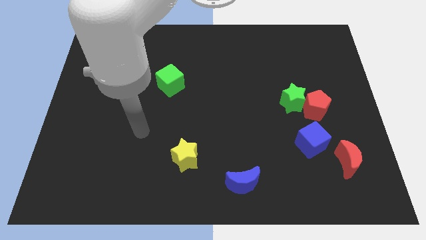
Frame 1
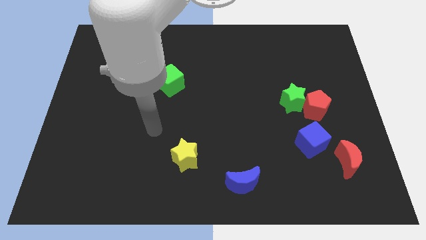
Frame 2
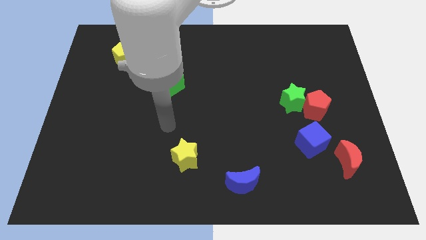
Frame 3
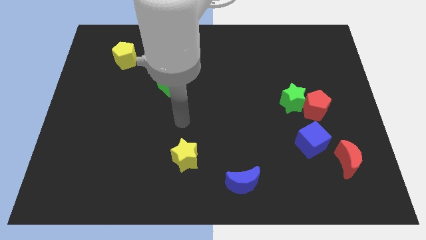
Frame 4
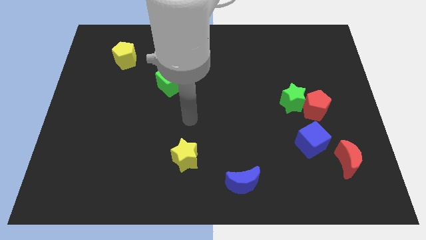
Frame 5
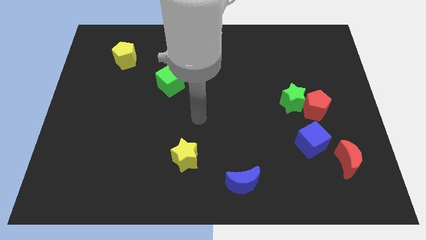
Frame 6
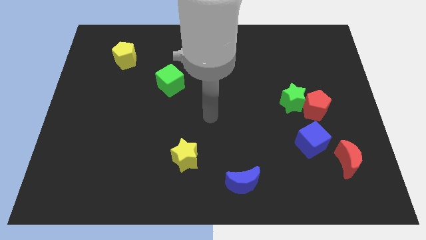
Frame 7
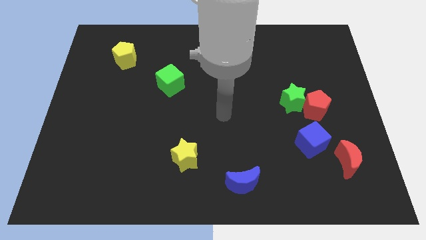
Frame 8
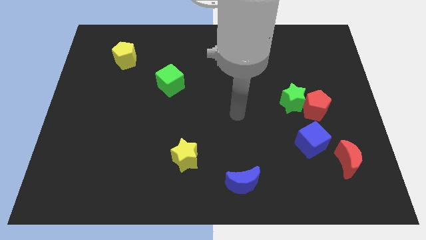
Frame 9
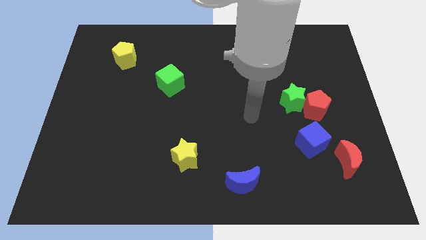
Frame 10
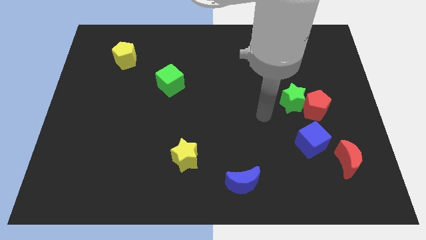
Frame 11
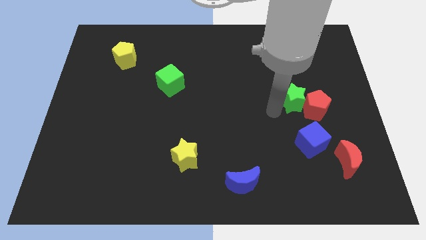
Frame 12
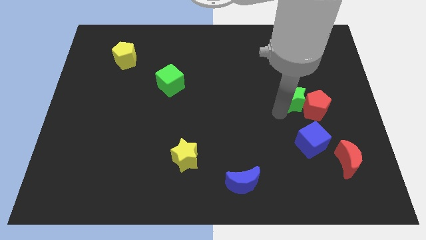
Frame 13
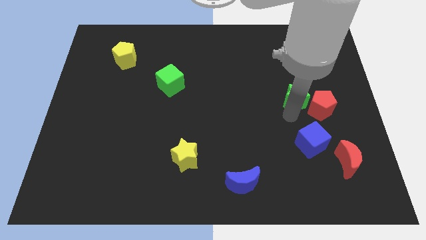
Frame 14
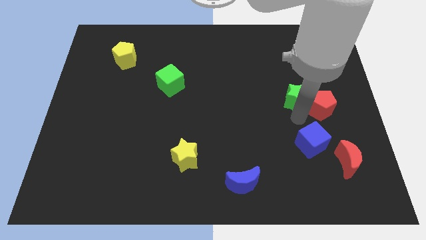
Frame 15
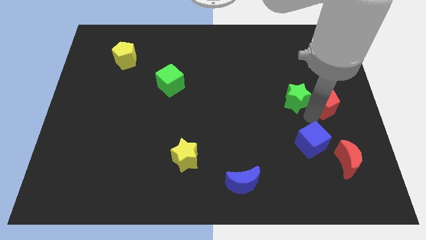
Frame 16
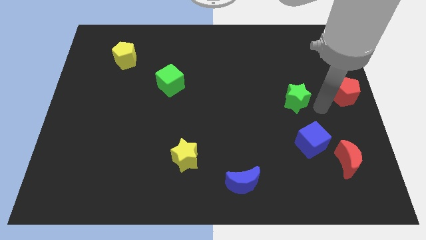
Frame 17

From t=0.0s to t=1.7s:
pull the green star apart from the red pentagon

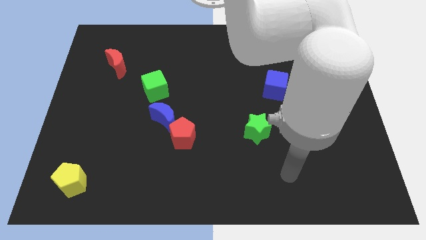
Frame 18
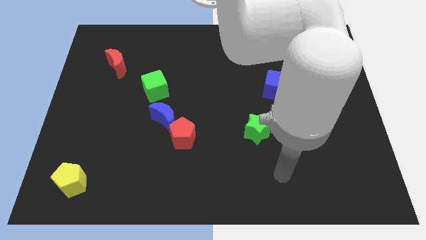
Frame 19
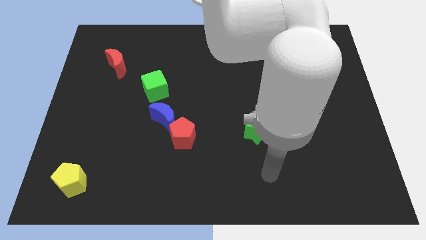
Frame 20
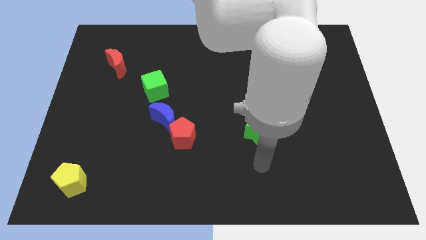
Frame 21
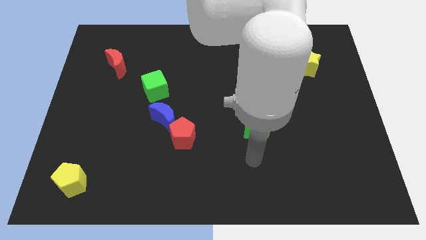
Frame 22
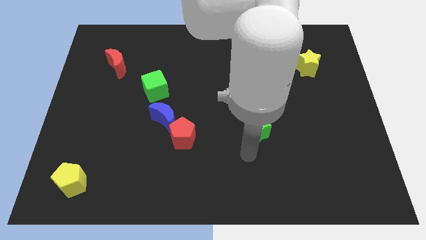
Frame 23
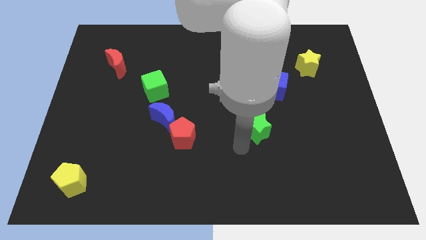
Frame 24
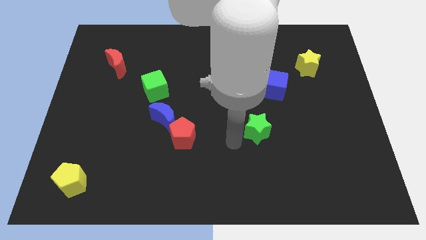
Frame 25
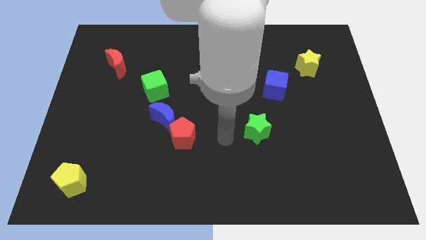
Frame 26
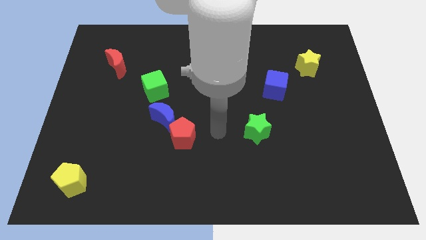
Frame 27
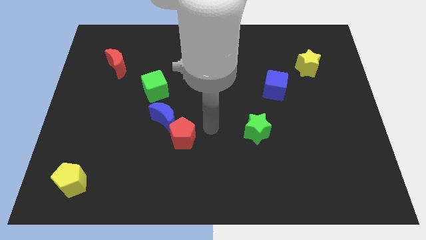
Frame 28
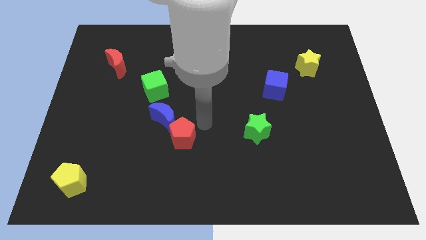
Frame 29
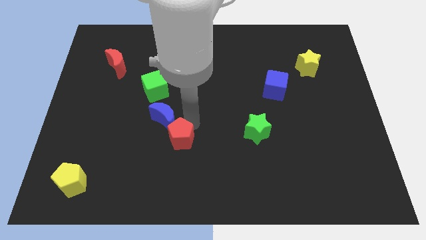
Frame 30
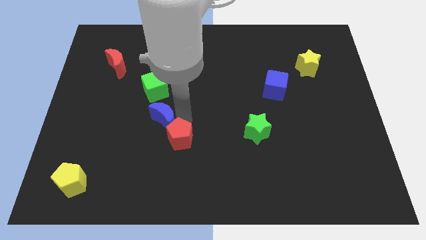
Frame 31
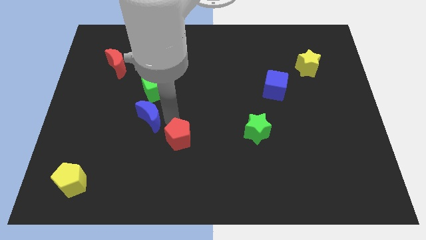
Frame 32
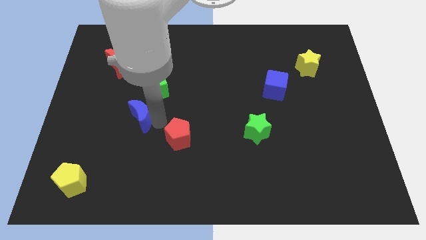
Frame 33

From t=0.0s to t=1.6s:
separate the red pentagon from the blue moon

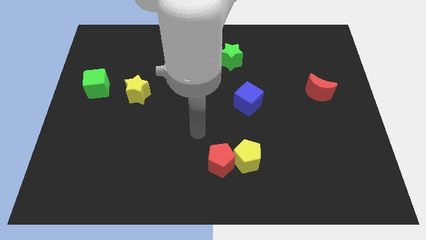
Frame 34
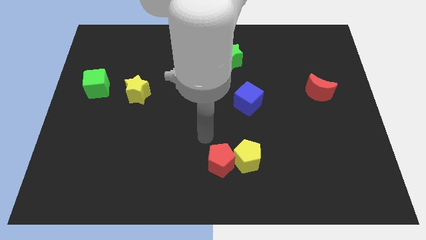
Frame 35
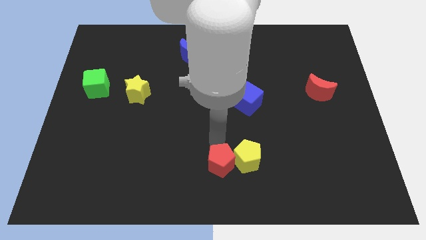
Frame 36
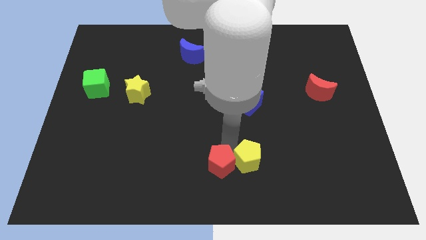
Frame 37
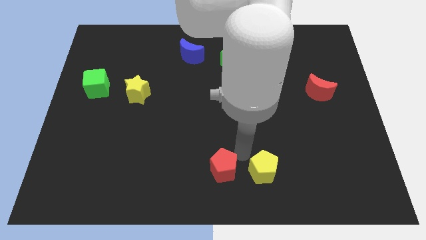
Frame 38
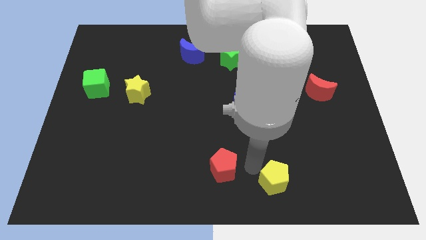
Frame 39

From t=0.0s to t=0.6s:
pull the red pentagon apart from the yellow pentagon

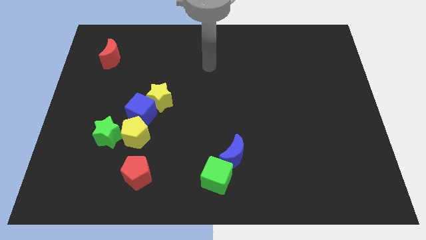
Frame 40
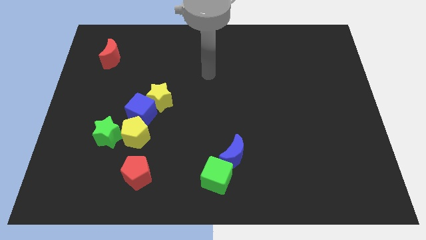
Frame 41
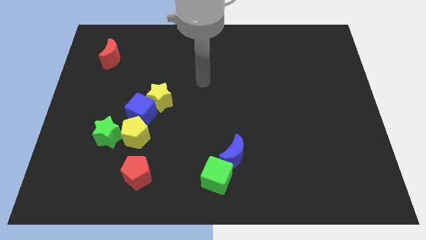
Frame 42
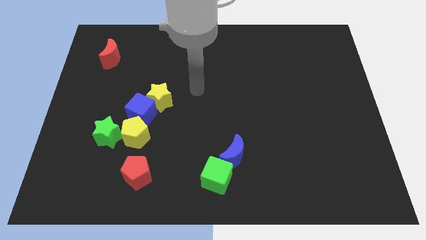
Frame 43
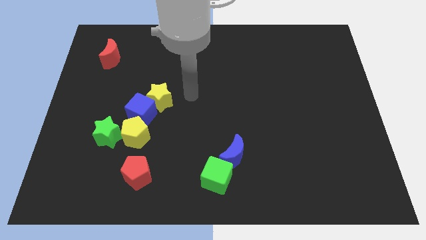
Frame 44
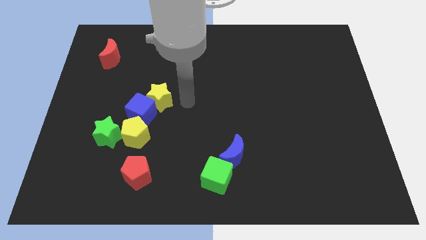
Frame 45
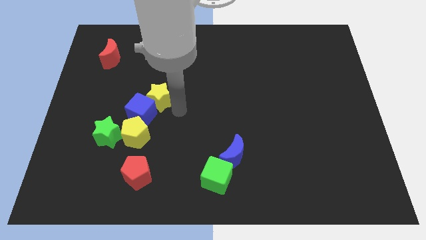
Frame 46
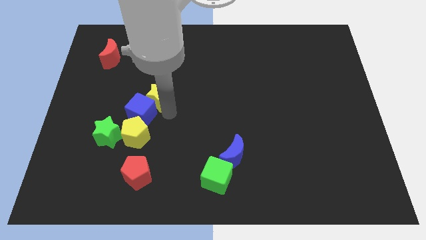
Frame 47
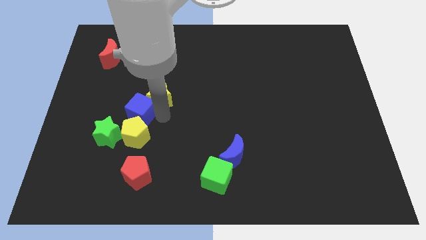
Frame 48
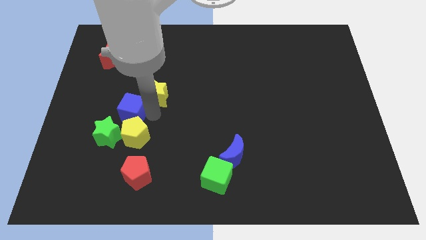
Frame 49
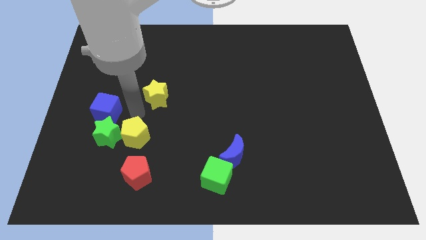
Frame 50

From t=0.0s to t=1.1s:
move the yellow star away from the blue cube

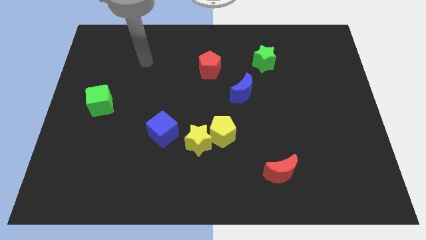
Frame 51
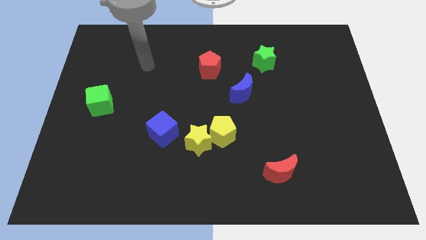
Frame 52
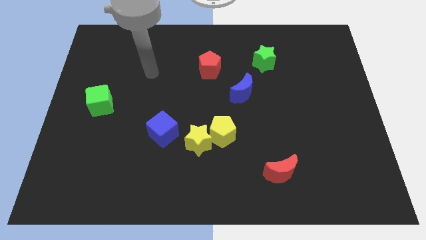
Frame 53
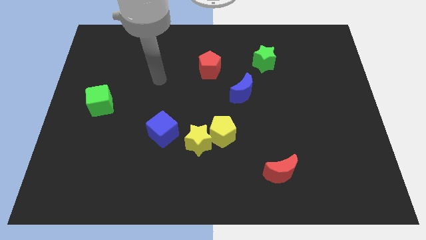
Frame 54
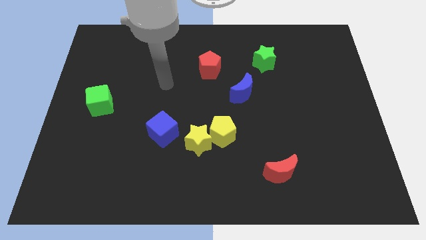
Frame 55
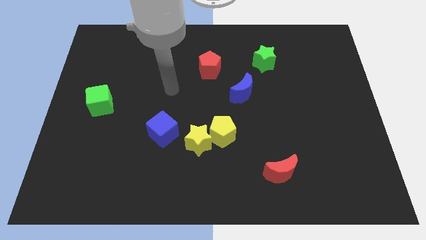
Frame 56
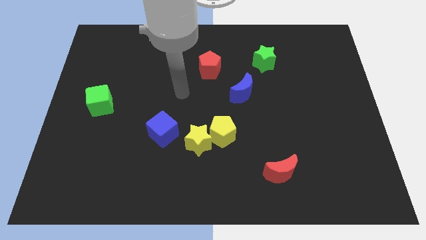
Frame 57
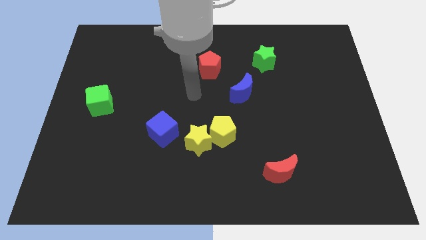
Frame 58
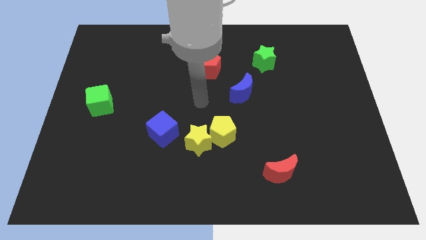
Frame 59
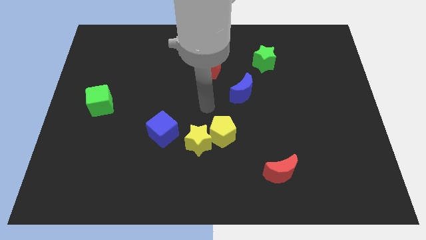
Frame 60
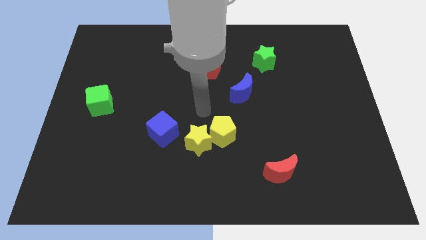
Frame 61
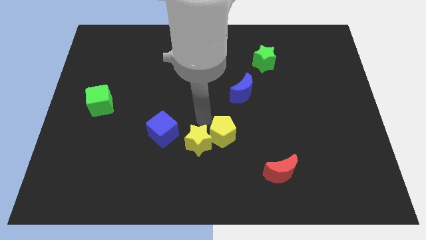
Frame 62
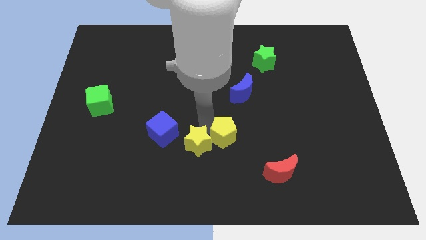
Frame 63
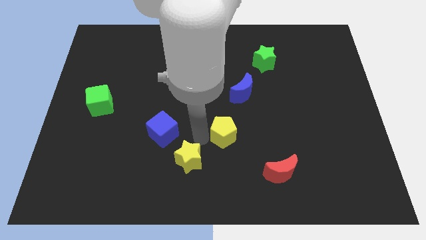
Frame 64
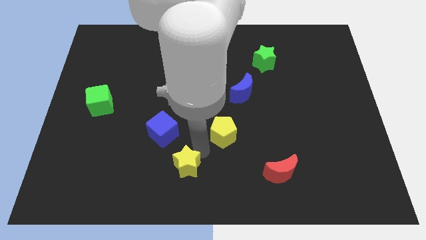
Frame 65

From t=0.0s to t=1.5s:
move the yellow pentagon away from the yellow star

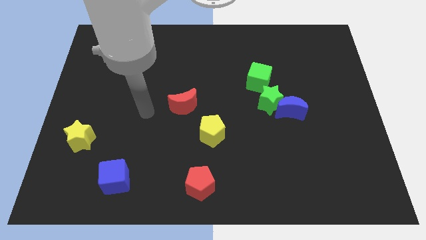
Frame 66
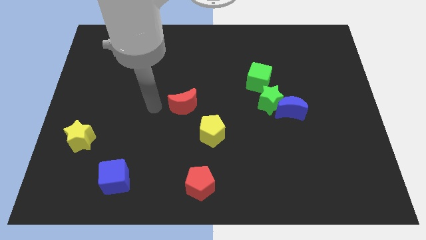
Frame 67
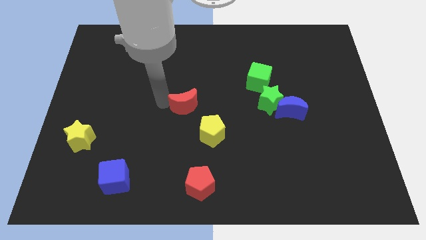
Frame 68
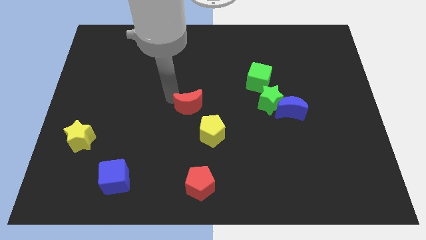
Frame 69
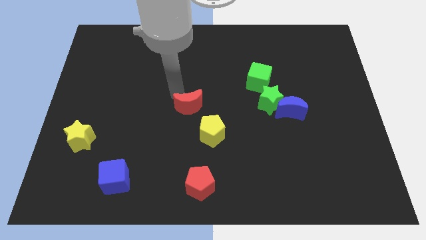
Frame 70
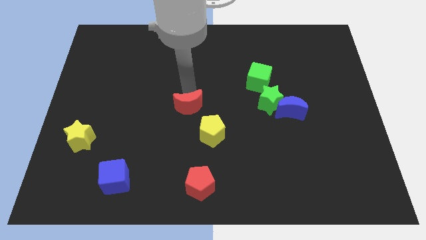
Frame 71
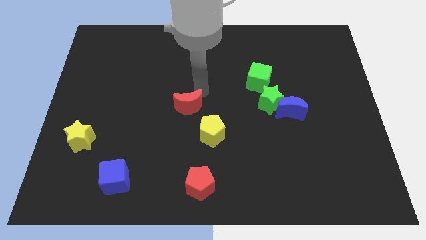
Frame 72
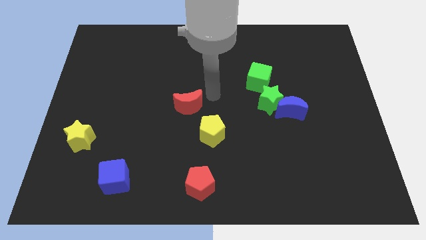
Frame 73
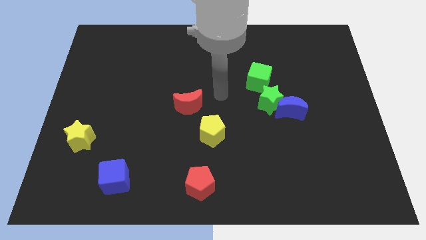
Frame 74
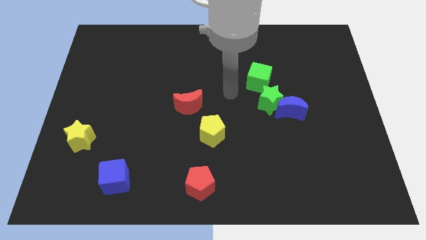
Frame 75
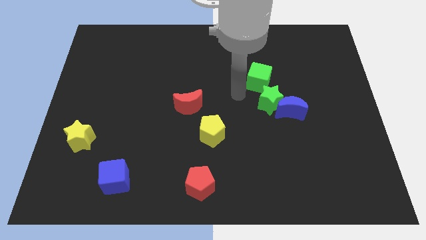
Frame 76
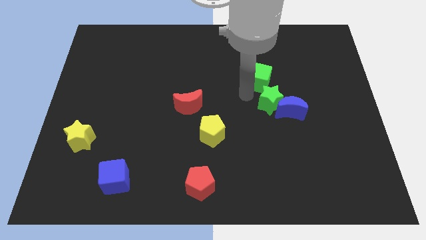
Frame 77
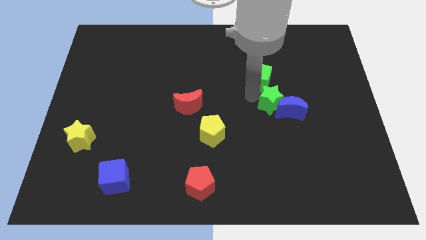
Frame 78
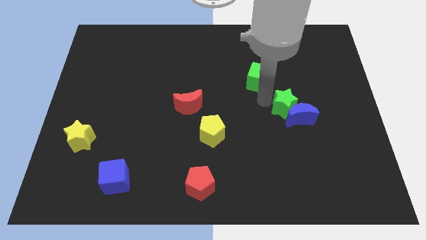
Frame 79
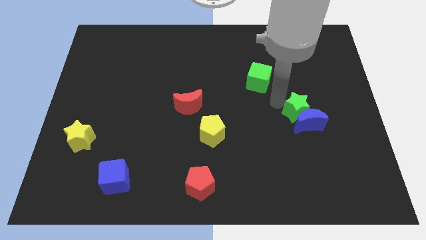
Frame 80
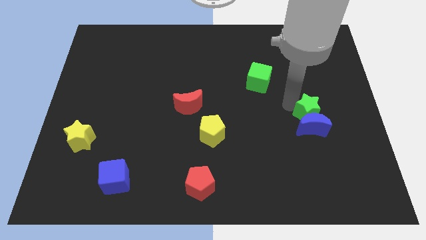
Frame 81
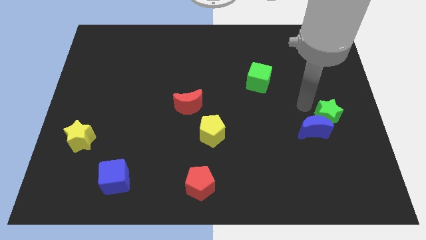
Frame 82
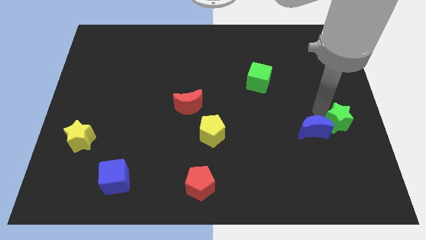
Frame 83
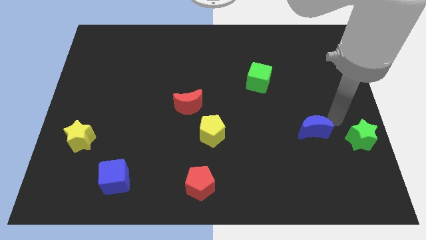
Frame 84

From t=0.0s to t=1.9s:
separate the blue moon from the green star

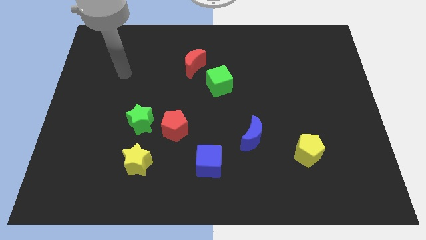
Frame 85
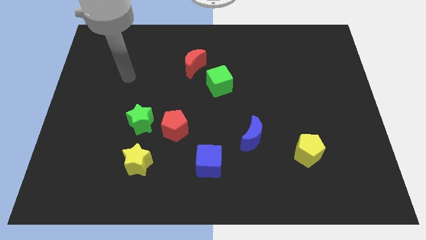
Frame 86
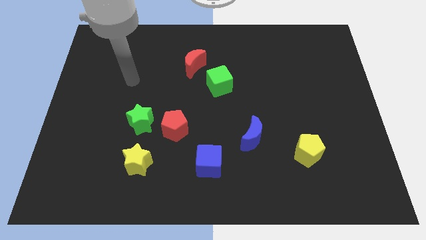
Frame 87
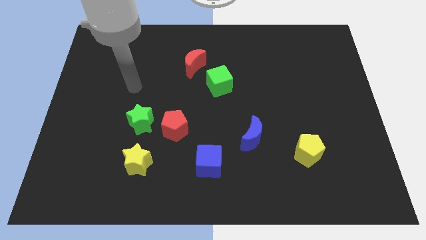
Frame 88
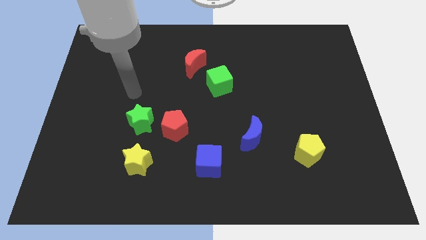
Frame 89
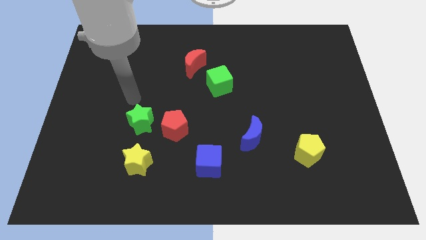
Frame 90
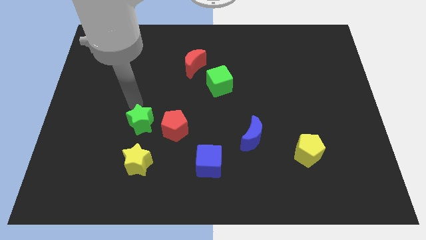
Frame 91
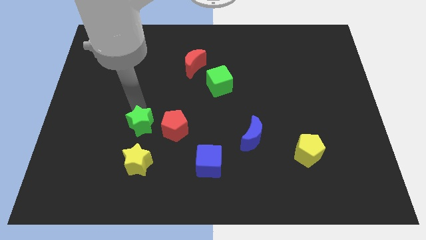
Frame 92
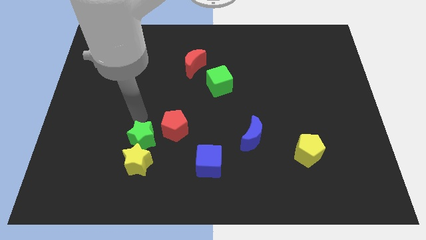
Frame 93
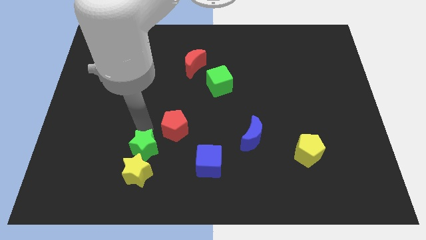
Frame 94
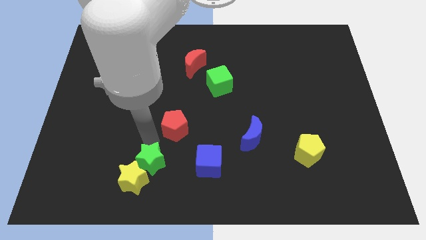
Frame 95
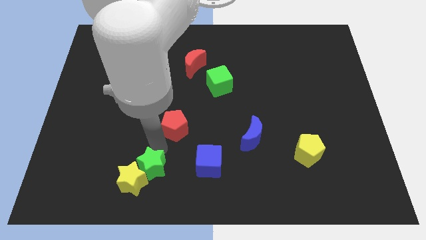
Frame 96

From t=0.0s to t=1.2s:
pull the red pentagon apart from the green star
